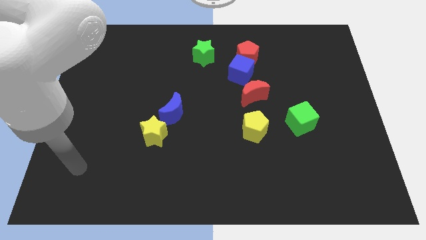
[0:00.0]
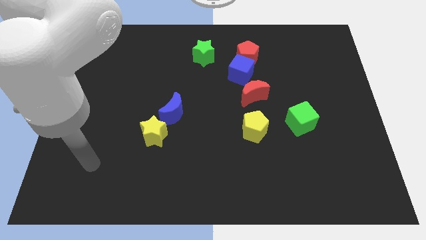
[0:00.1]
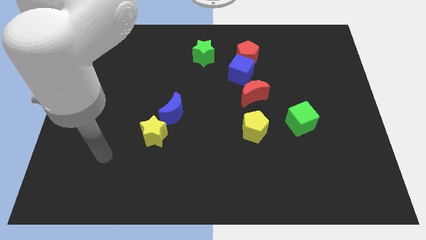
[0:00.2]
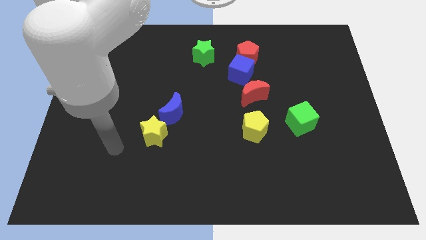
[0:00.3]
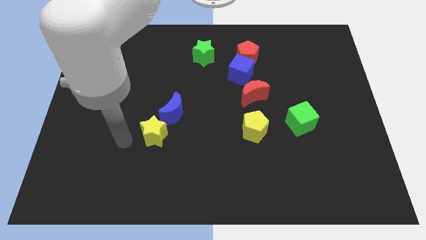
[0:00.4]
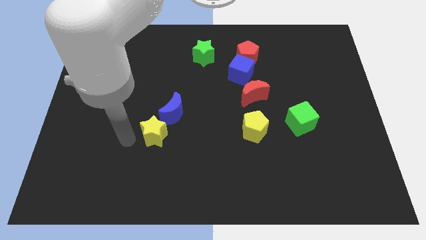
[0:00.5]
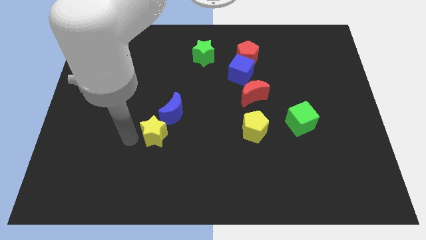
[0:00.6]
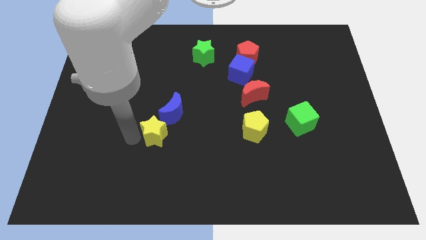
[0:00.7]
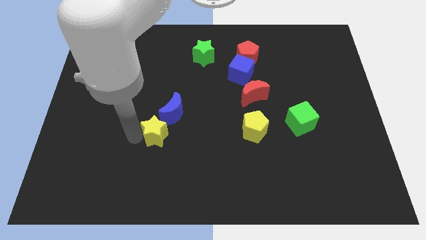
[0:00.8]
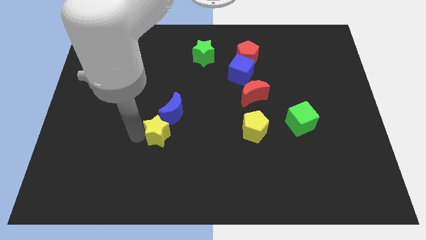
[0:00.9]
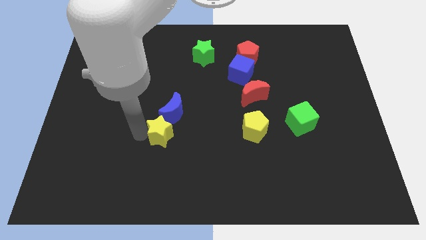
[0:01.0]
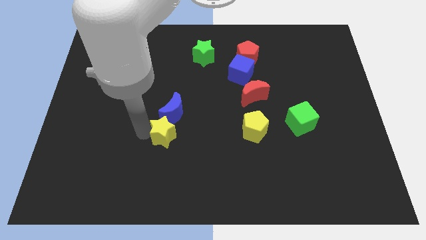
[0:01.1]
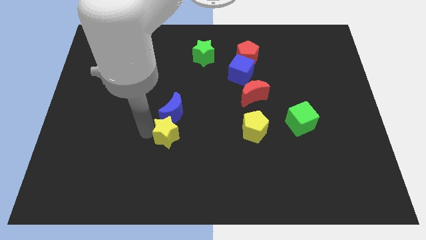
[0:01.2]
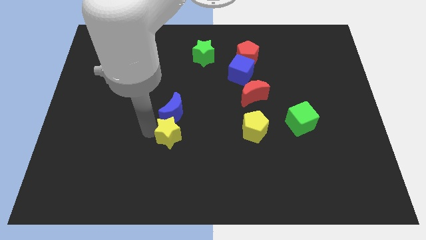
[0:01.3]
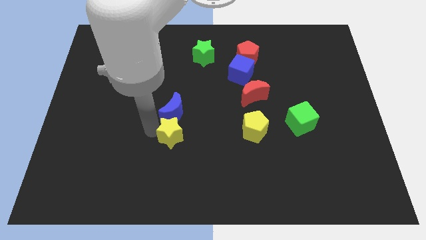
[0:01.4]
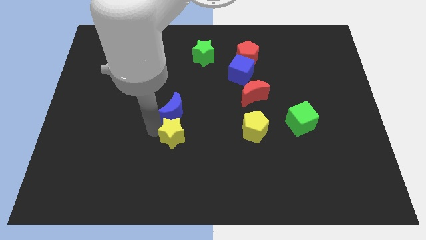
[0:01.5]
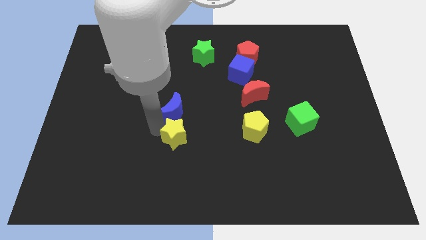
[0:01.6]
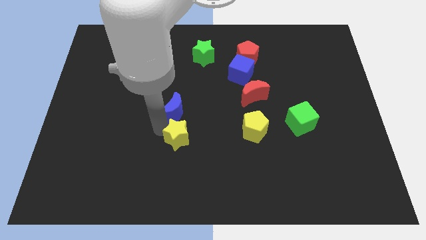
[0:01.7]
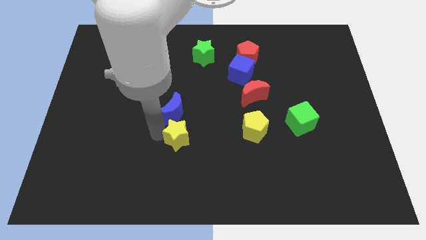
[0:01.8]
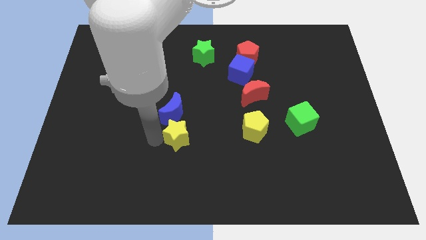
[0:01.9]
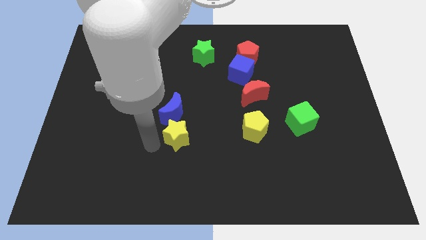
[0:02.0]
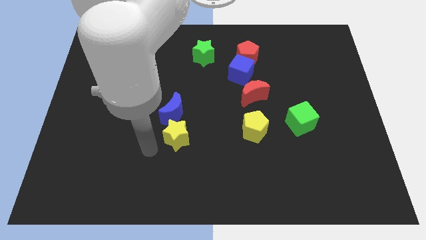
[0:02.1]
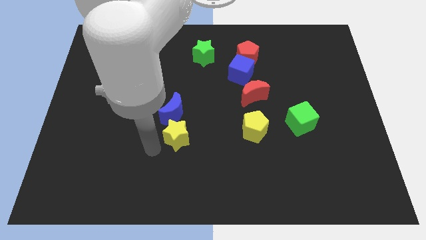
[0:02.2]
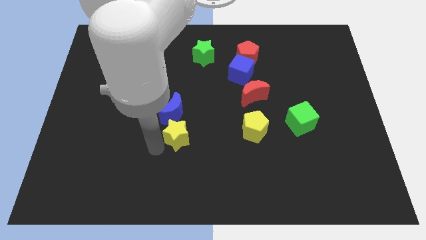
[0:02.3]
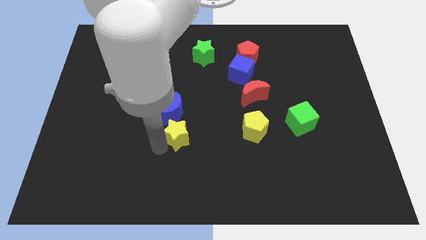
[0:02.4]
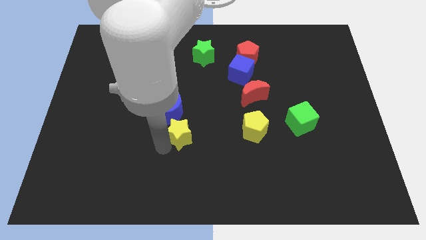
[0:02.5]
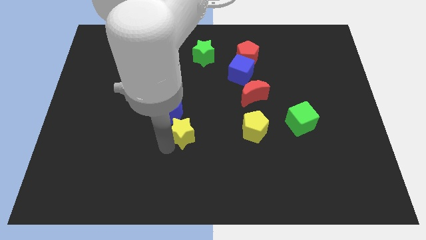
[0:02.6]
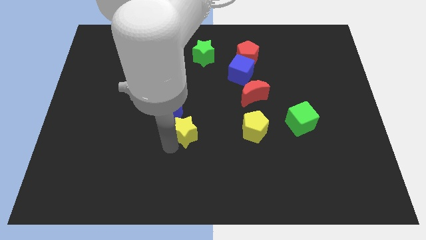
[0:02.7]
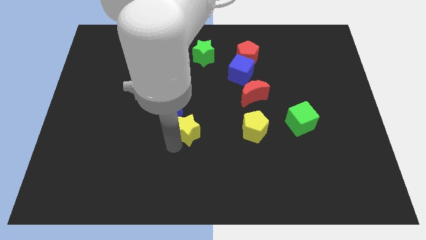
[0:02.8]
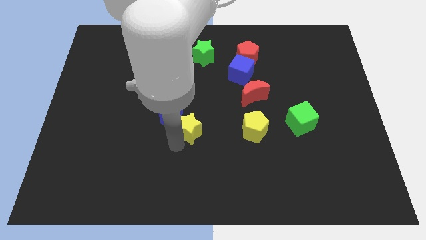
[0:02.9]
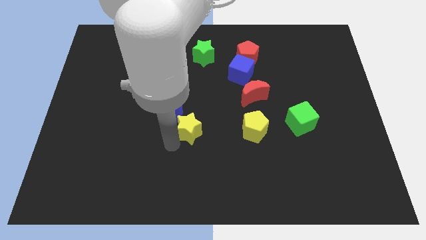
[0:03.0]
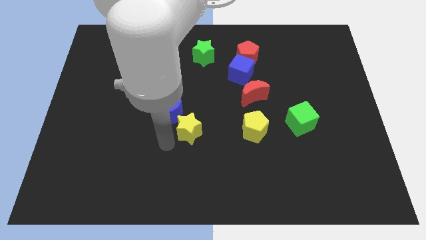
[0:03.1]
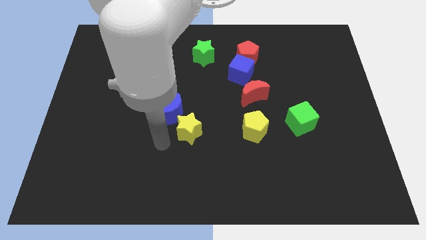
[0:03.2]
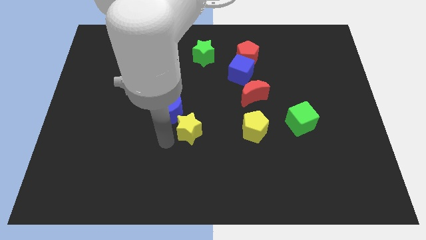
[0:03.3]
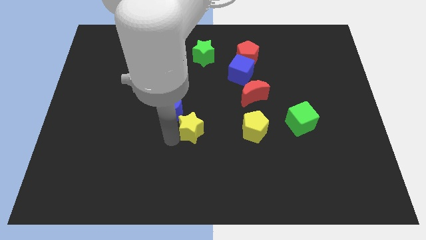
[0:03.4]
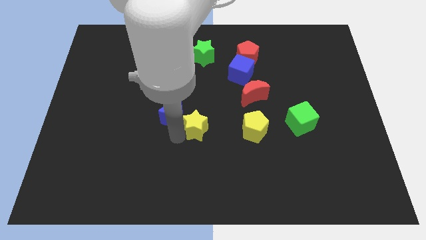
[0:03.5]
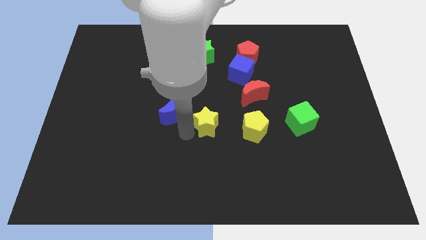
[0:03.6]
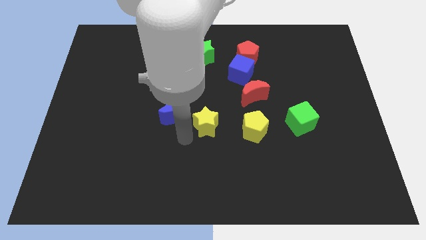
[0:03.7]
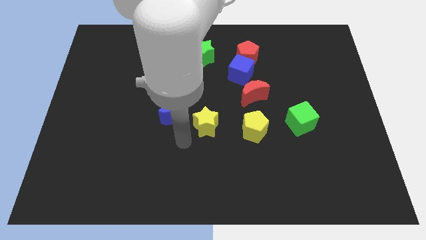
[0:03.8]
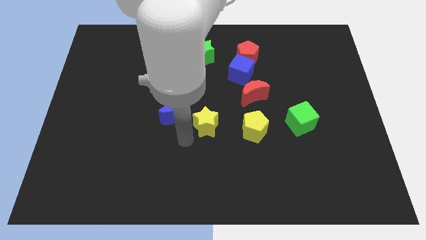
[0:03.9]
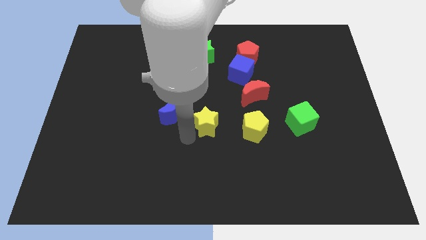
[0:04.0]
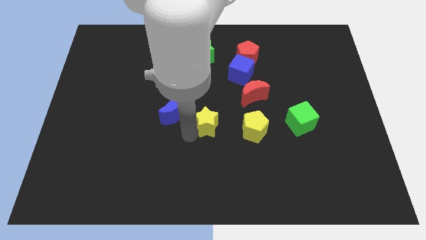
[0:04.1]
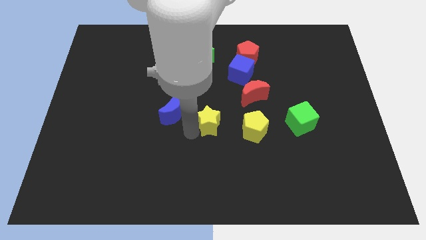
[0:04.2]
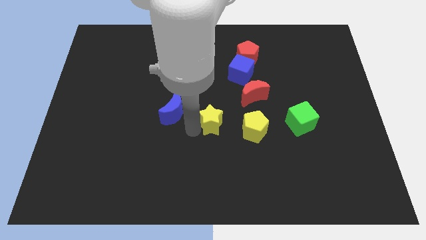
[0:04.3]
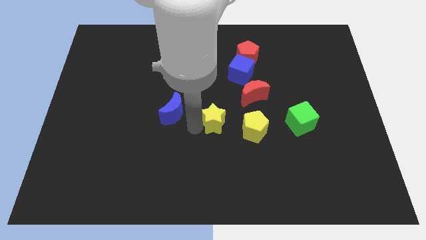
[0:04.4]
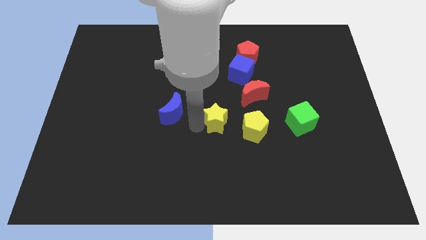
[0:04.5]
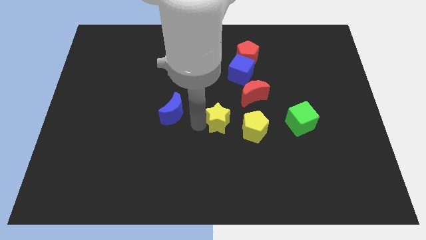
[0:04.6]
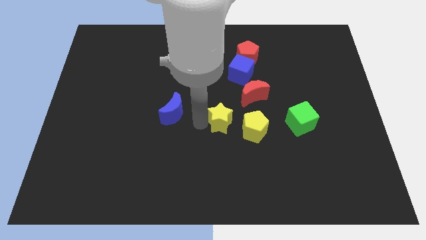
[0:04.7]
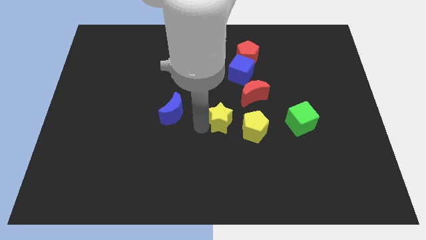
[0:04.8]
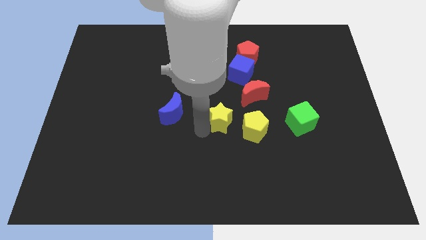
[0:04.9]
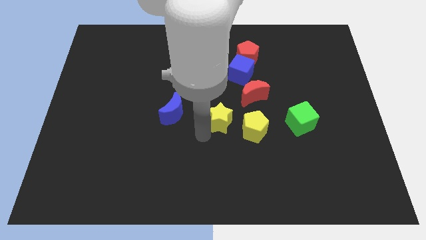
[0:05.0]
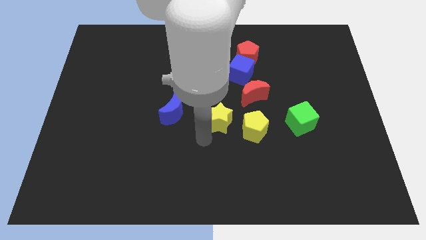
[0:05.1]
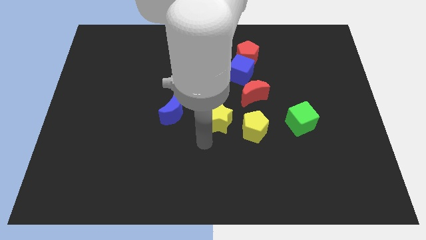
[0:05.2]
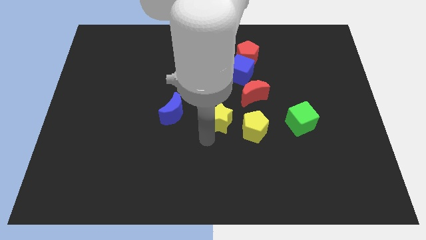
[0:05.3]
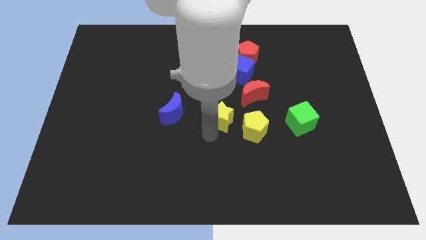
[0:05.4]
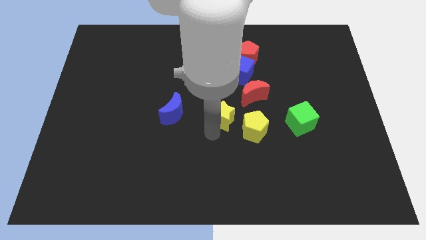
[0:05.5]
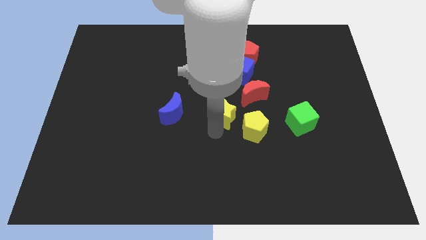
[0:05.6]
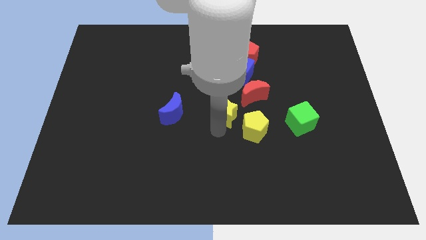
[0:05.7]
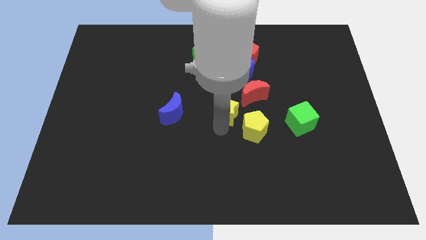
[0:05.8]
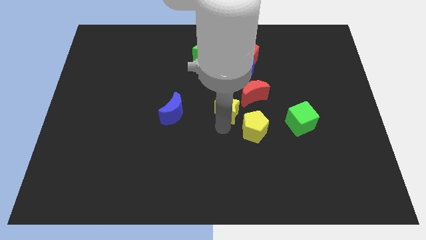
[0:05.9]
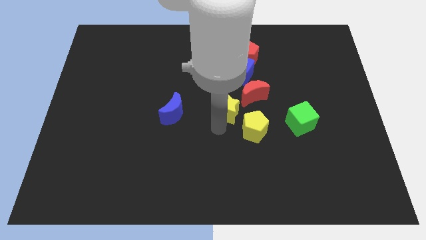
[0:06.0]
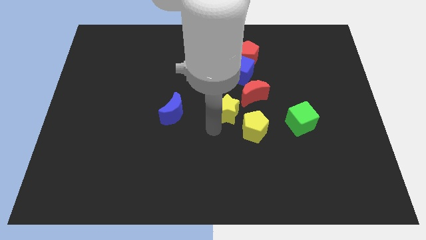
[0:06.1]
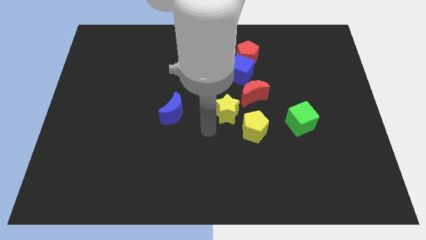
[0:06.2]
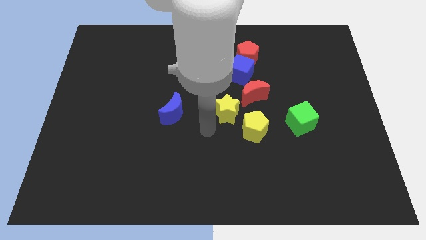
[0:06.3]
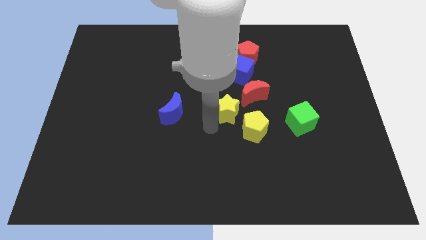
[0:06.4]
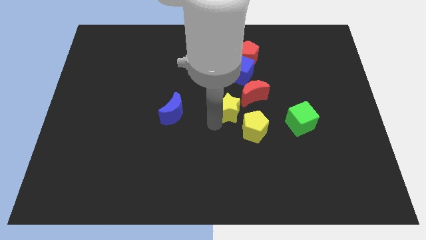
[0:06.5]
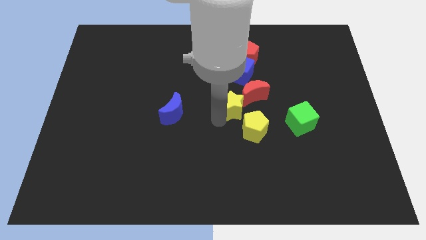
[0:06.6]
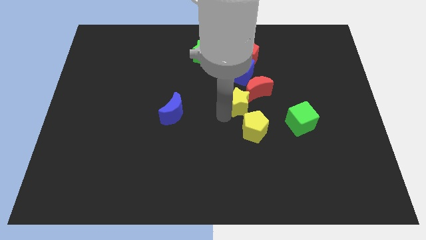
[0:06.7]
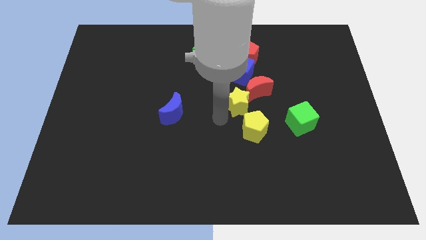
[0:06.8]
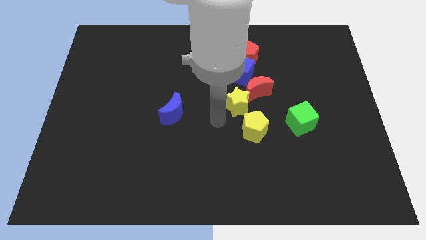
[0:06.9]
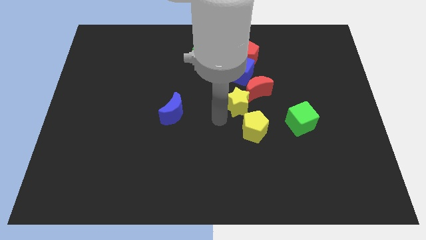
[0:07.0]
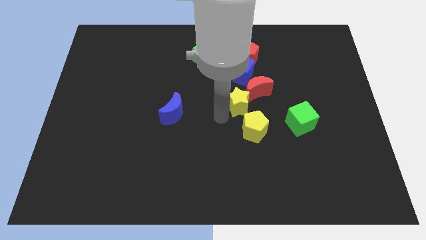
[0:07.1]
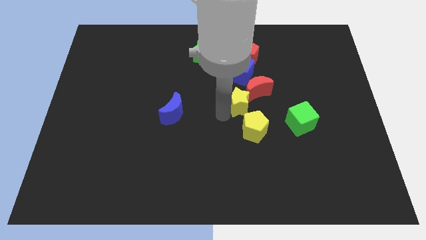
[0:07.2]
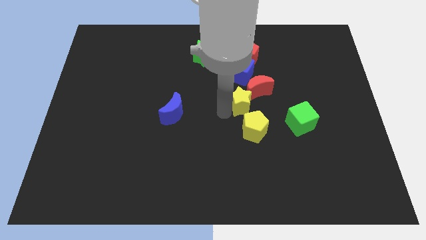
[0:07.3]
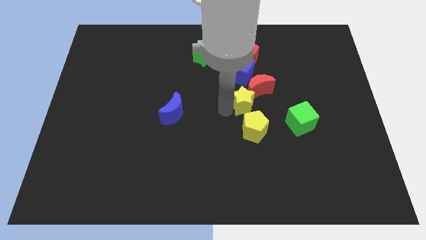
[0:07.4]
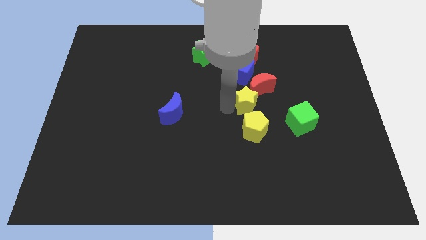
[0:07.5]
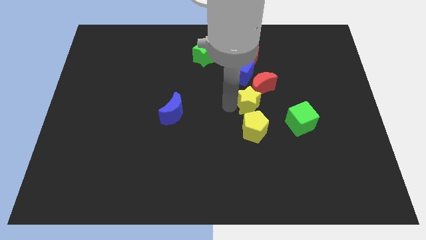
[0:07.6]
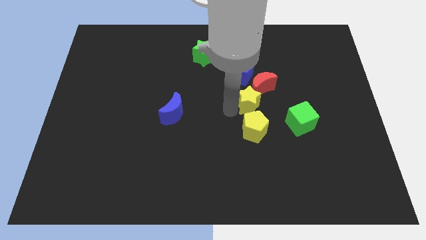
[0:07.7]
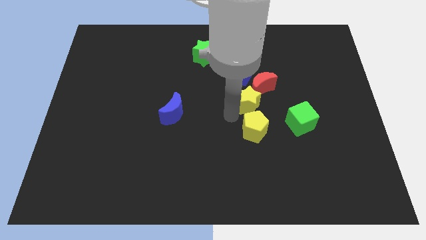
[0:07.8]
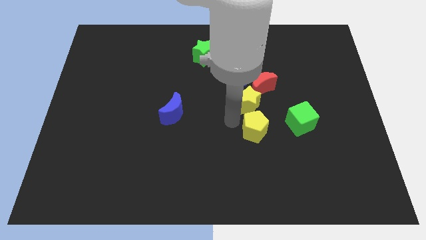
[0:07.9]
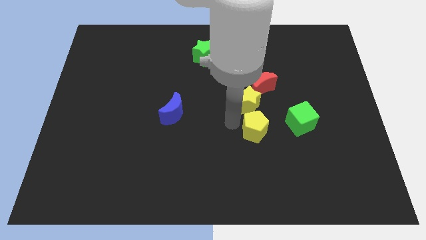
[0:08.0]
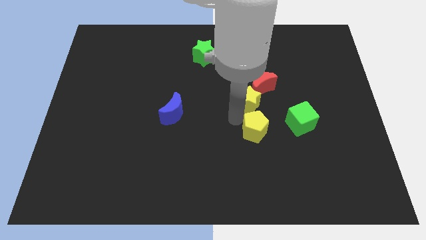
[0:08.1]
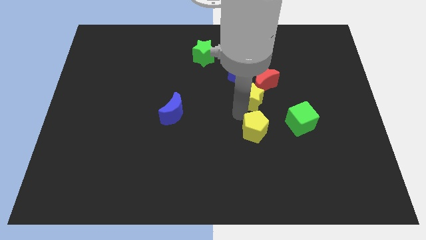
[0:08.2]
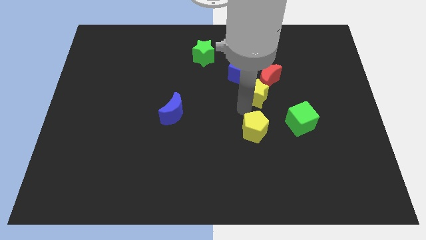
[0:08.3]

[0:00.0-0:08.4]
slide the yellow star towards the red moon
